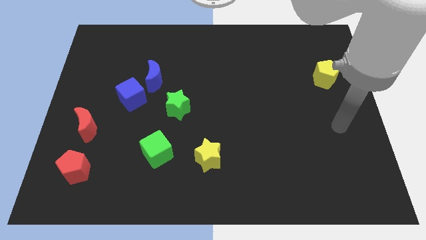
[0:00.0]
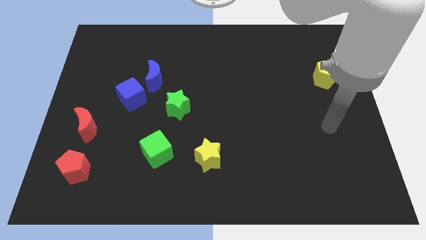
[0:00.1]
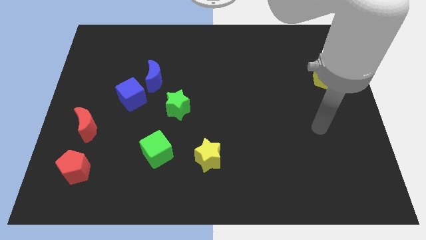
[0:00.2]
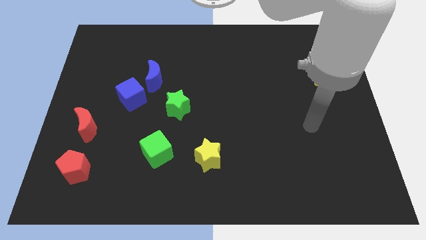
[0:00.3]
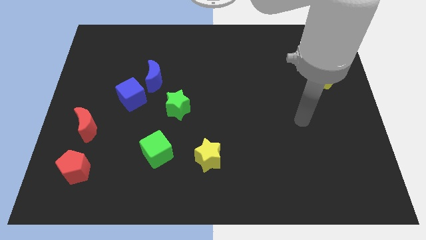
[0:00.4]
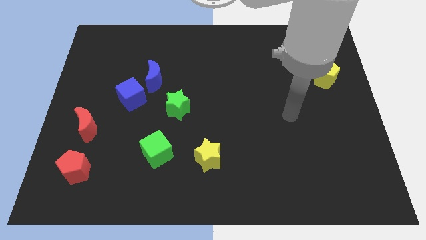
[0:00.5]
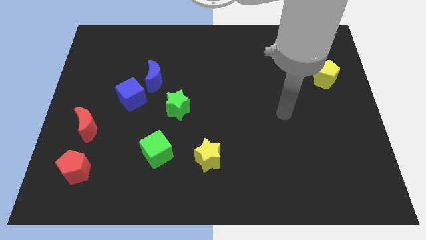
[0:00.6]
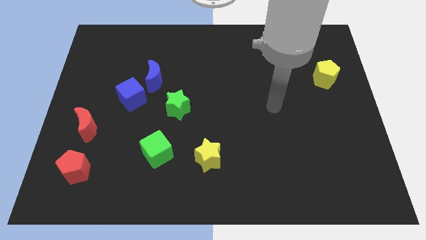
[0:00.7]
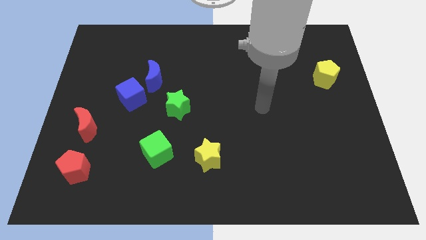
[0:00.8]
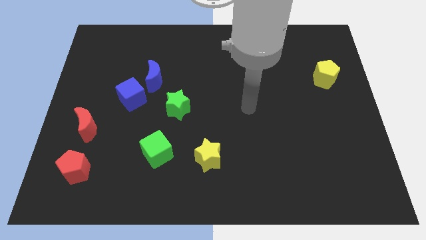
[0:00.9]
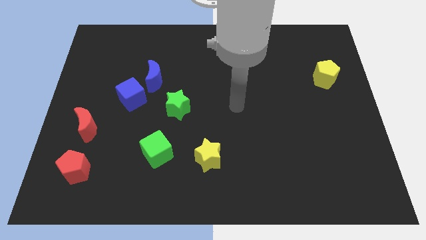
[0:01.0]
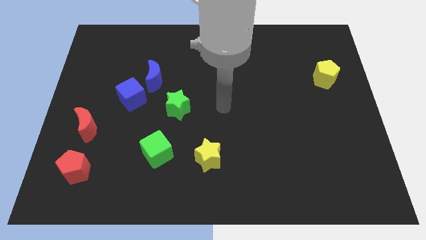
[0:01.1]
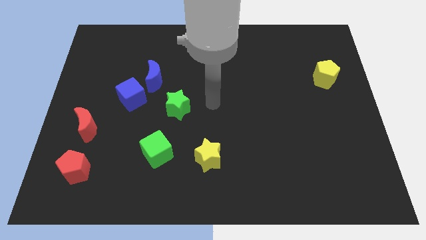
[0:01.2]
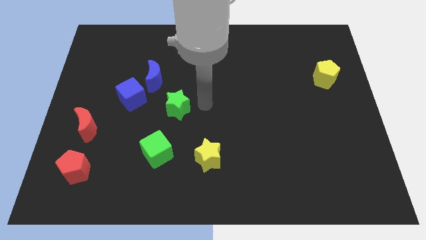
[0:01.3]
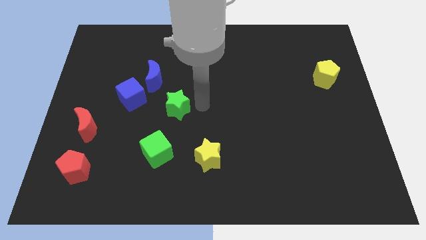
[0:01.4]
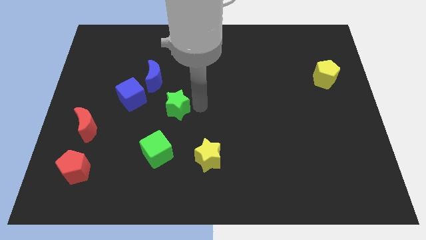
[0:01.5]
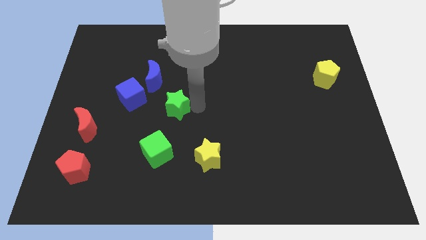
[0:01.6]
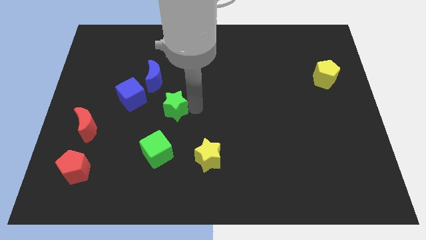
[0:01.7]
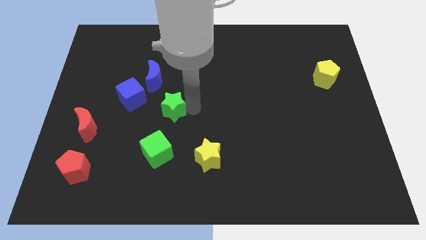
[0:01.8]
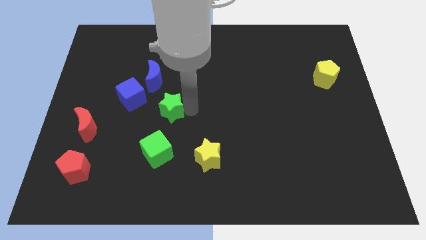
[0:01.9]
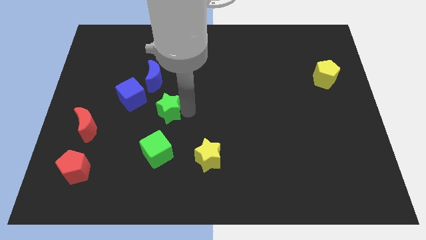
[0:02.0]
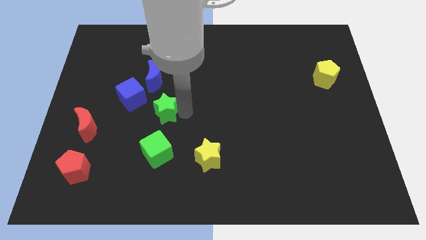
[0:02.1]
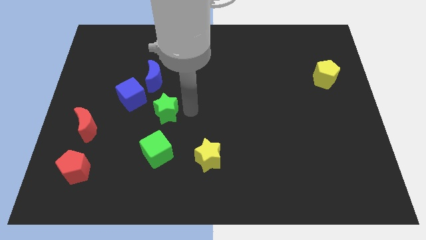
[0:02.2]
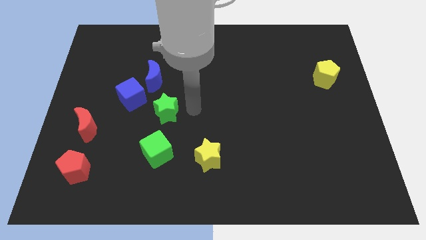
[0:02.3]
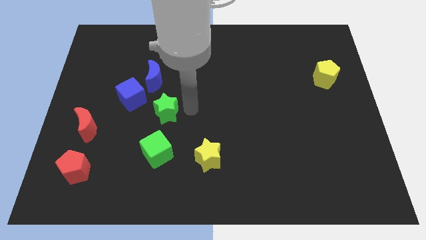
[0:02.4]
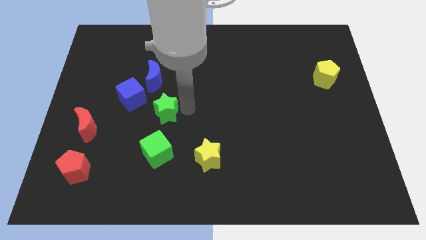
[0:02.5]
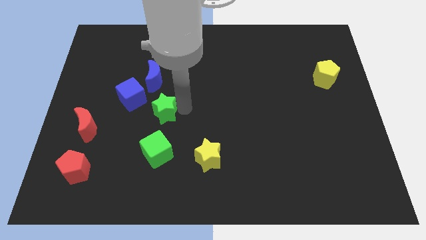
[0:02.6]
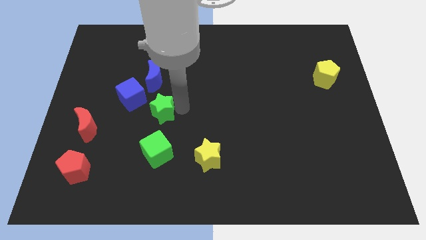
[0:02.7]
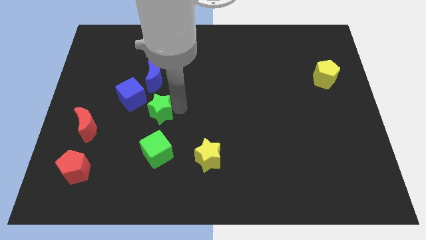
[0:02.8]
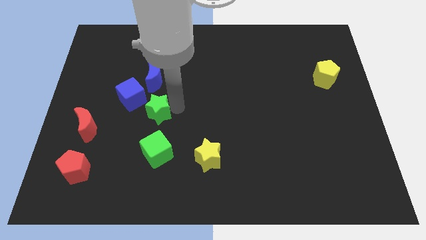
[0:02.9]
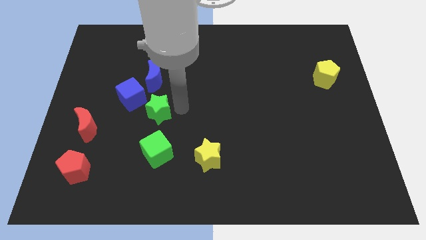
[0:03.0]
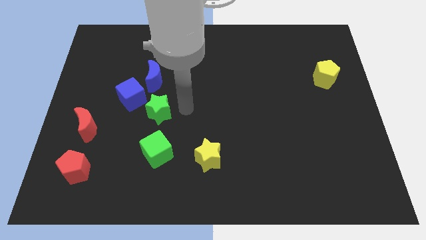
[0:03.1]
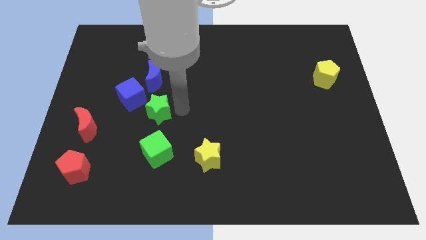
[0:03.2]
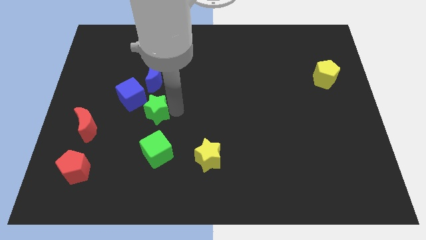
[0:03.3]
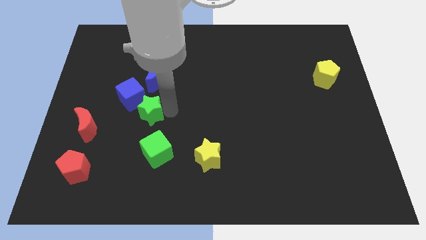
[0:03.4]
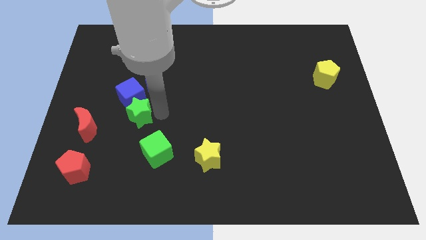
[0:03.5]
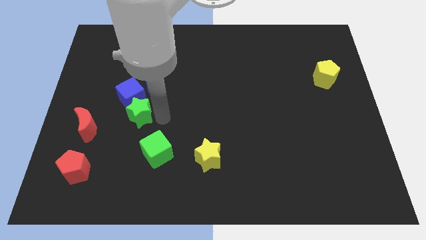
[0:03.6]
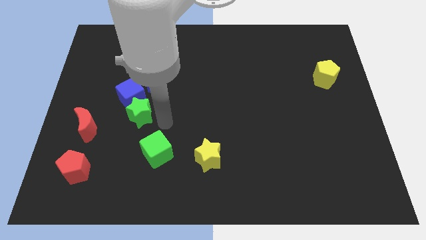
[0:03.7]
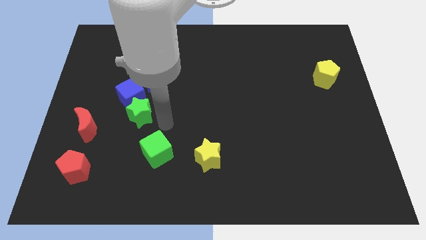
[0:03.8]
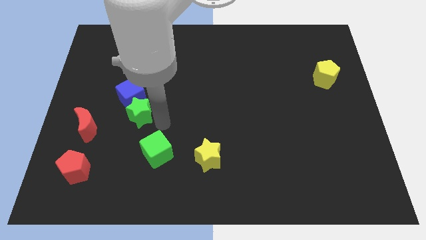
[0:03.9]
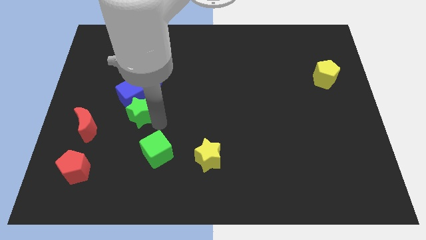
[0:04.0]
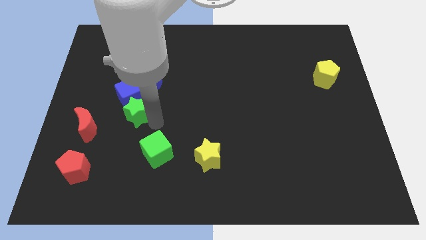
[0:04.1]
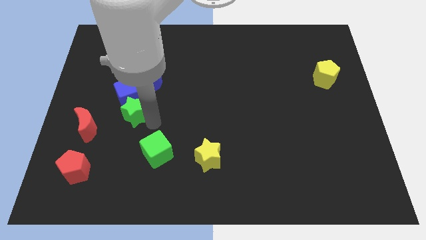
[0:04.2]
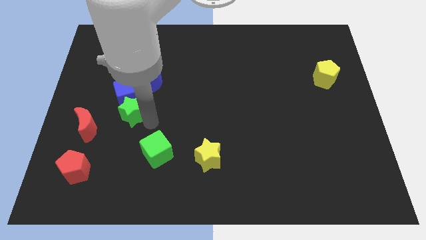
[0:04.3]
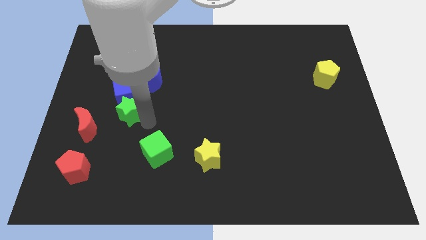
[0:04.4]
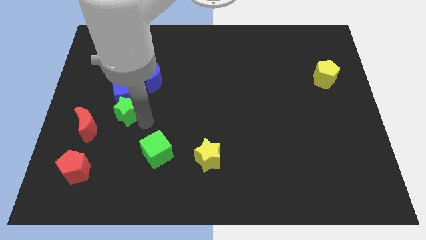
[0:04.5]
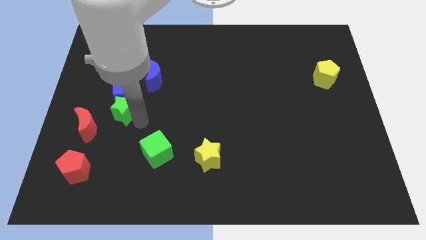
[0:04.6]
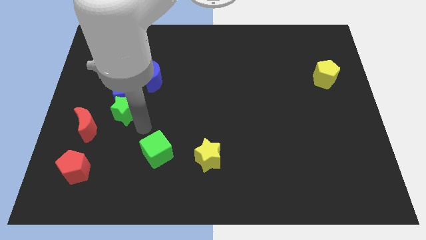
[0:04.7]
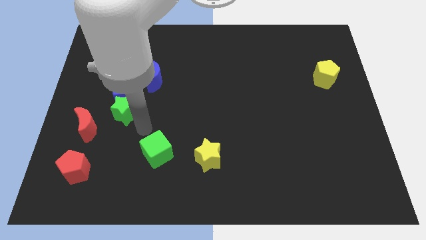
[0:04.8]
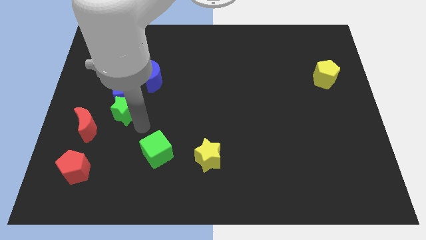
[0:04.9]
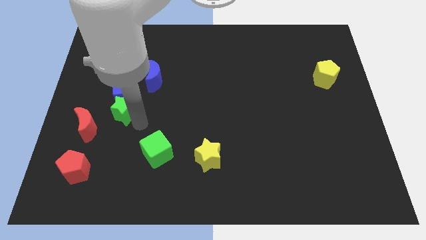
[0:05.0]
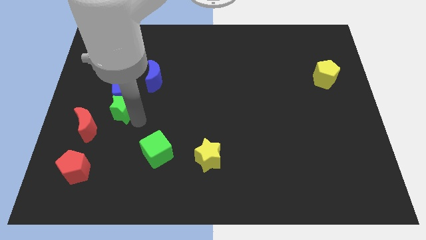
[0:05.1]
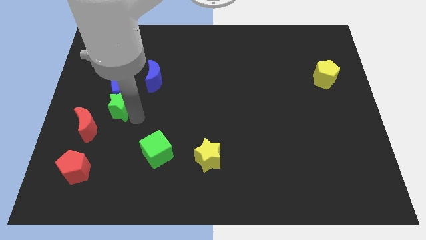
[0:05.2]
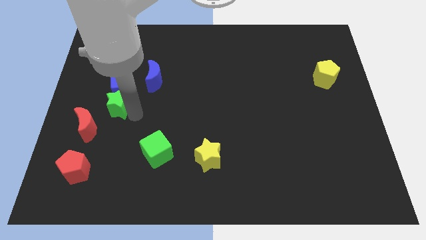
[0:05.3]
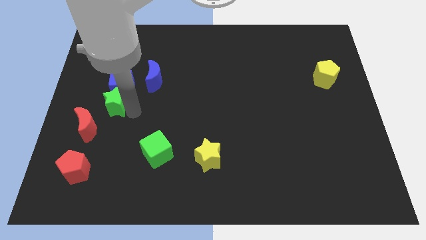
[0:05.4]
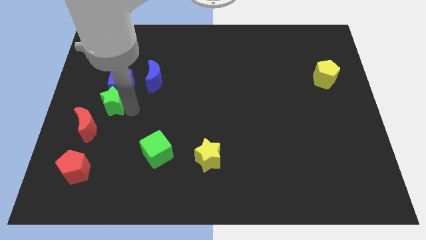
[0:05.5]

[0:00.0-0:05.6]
slide the green star to the top of the red moon

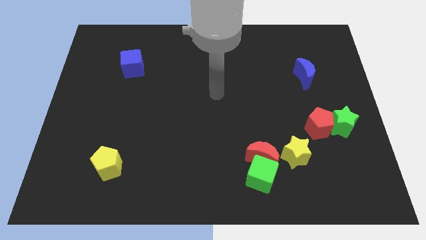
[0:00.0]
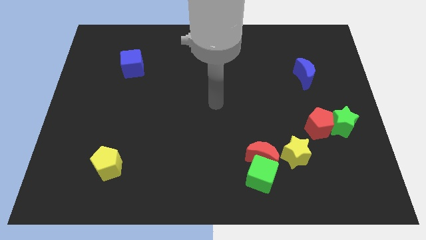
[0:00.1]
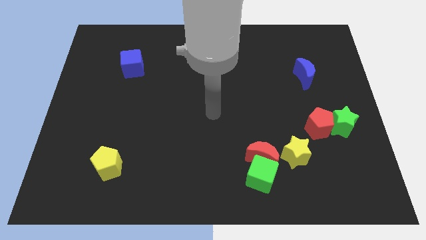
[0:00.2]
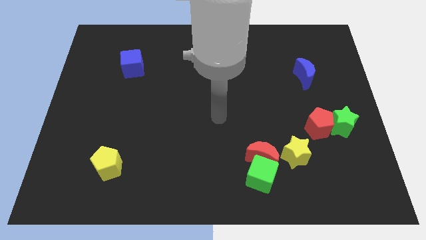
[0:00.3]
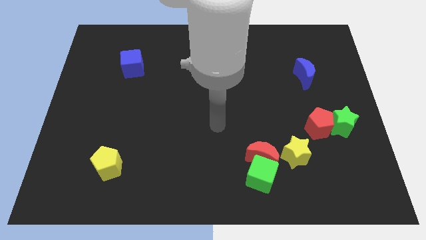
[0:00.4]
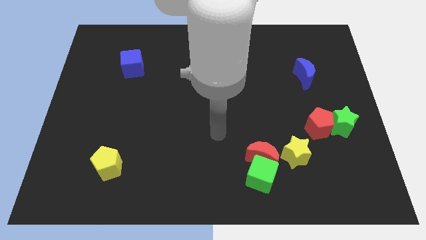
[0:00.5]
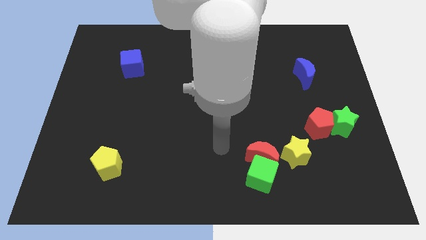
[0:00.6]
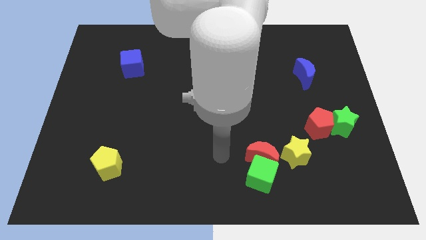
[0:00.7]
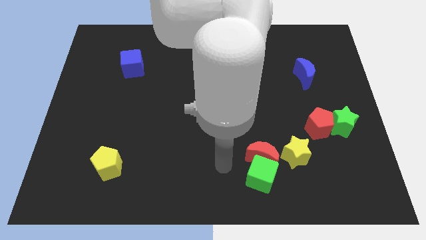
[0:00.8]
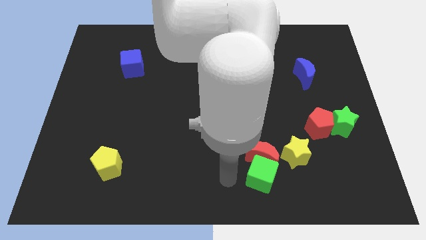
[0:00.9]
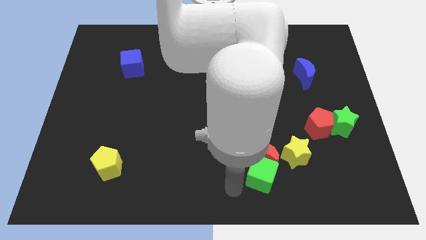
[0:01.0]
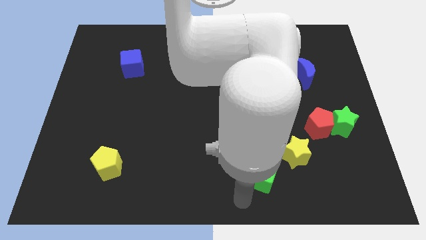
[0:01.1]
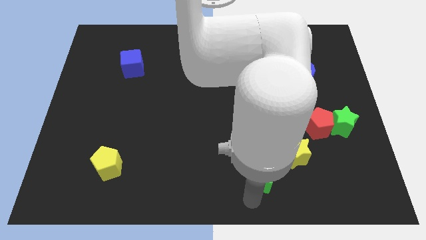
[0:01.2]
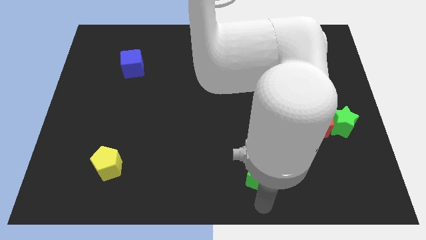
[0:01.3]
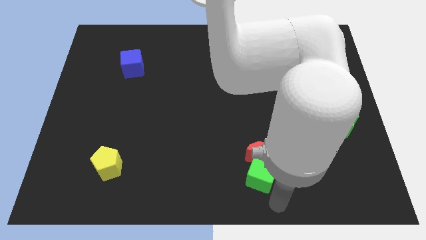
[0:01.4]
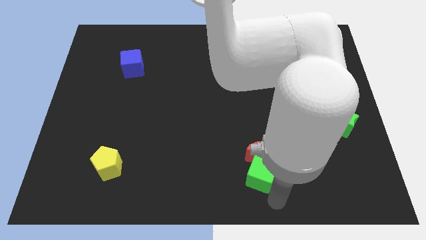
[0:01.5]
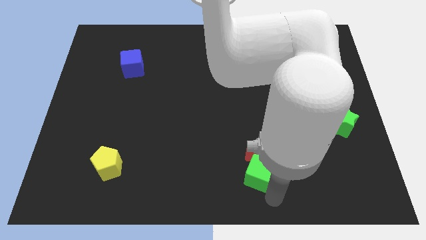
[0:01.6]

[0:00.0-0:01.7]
push the green cube to the left side of the yellow star
